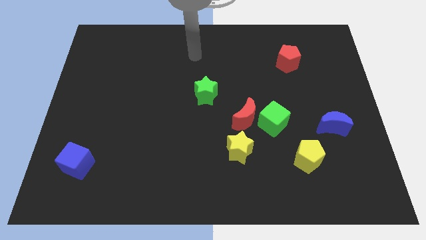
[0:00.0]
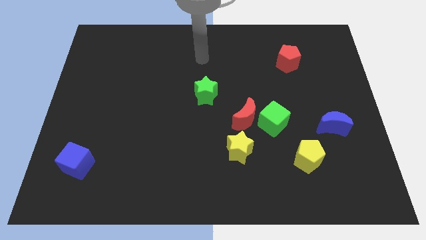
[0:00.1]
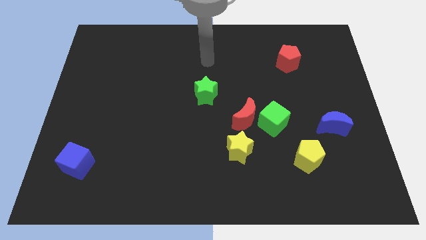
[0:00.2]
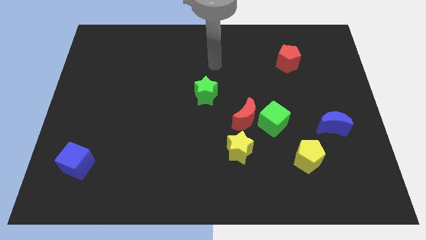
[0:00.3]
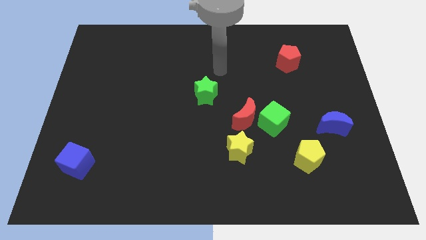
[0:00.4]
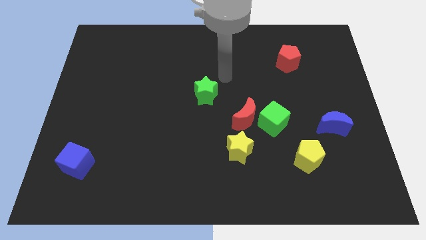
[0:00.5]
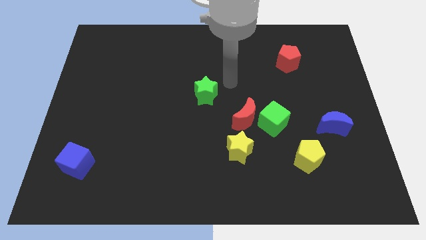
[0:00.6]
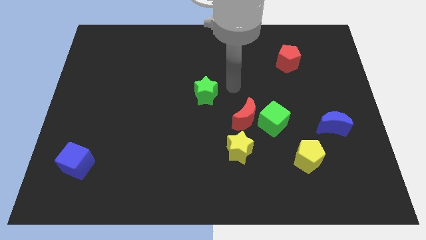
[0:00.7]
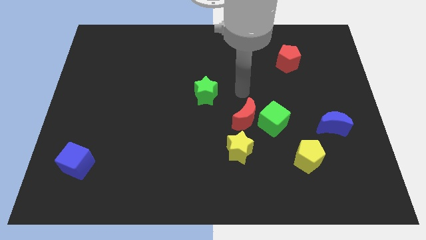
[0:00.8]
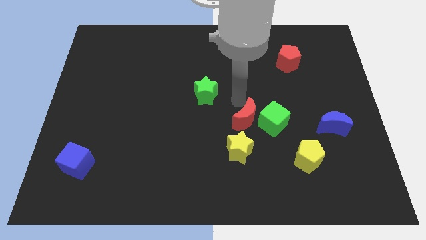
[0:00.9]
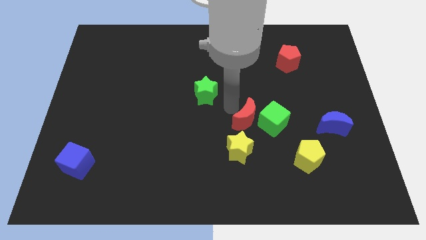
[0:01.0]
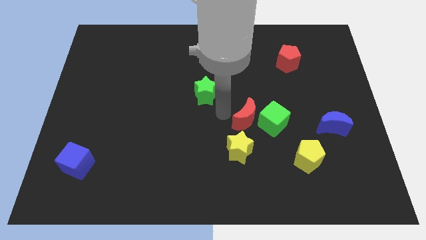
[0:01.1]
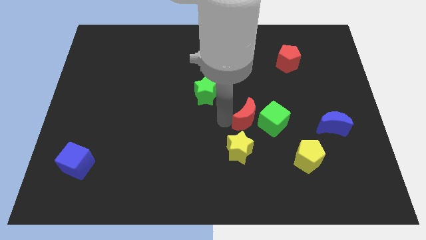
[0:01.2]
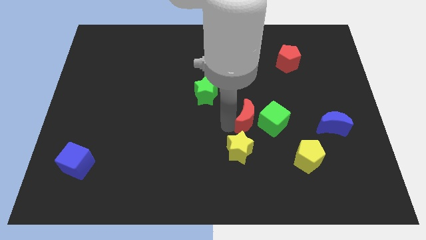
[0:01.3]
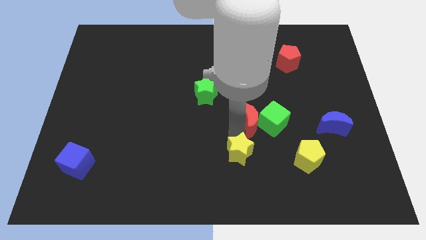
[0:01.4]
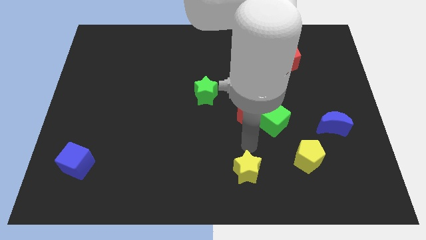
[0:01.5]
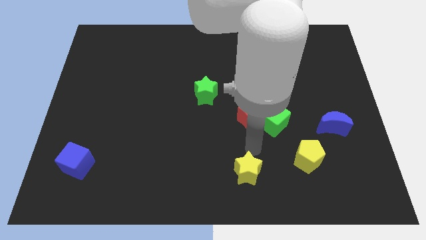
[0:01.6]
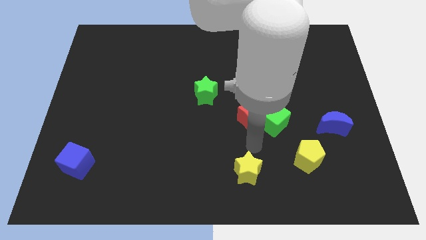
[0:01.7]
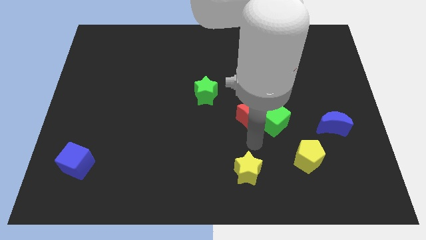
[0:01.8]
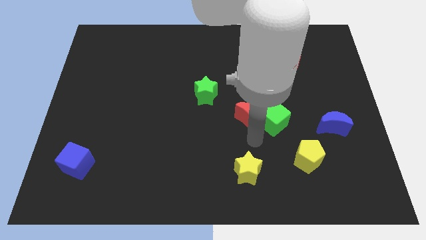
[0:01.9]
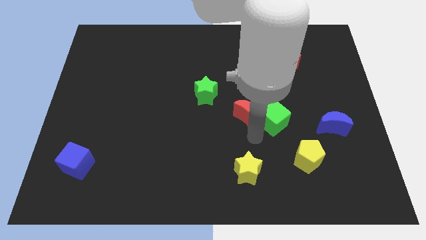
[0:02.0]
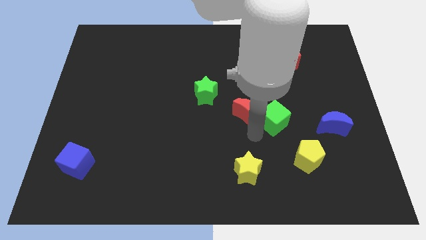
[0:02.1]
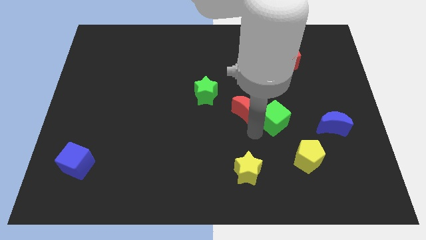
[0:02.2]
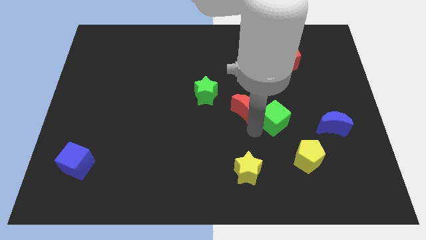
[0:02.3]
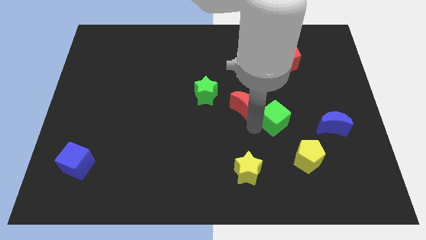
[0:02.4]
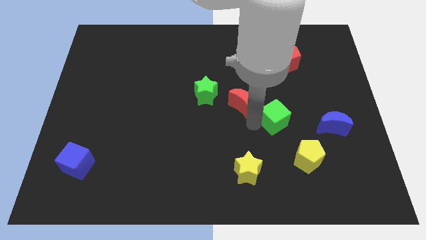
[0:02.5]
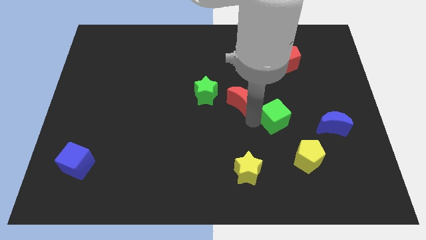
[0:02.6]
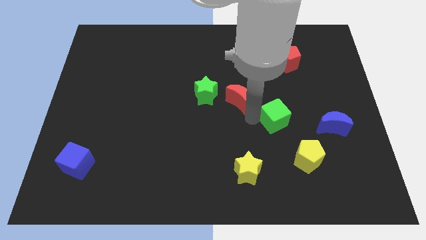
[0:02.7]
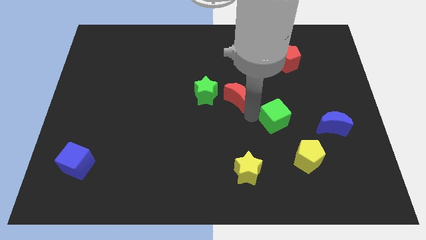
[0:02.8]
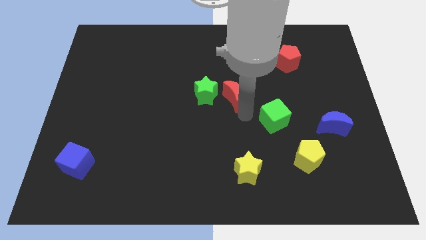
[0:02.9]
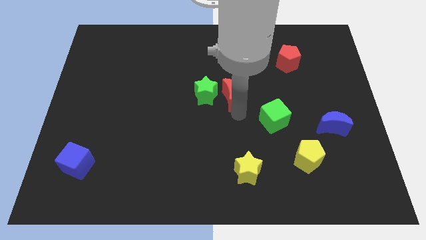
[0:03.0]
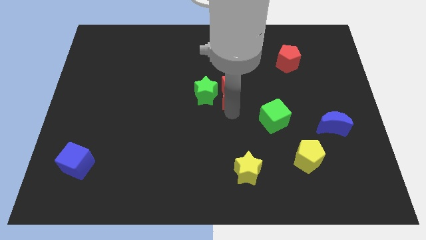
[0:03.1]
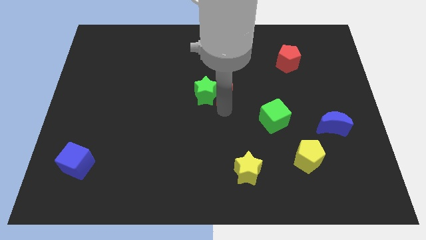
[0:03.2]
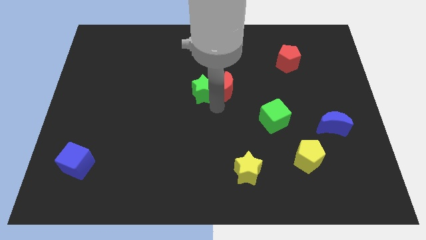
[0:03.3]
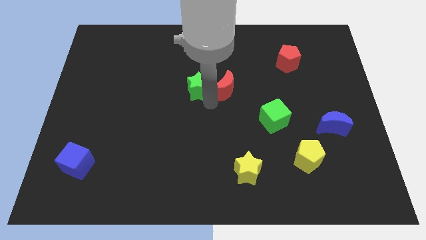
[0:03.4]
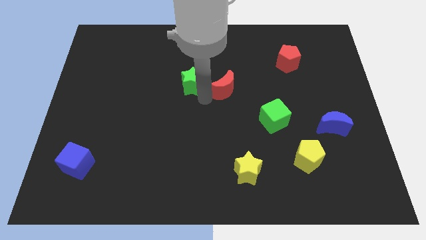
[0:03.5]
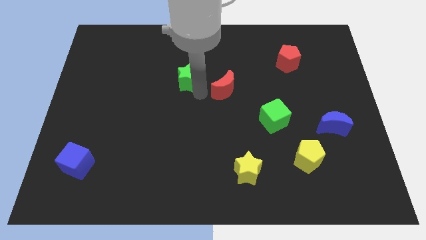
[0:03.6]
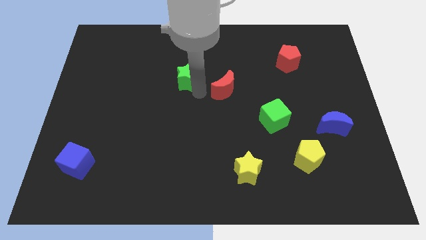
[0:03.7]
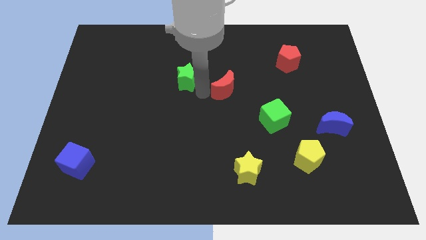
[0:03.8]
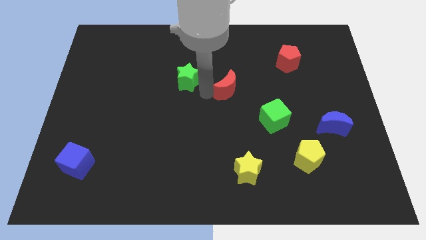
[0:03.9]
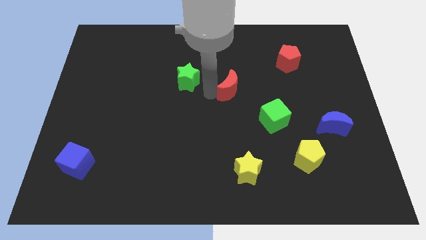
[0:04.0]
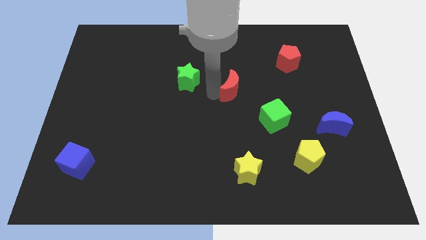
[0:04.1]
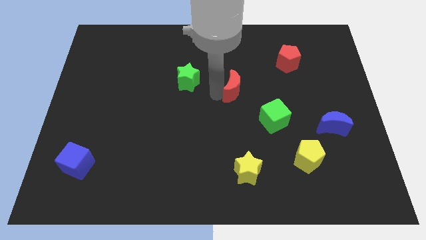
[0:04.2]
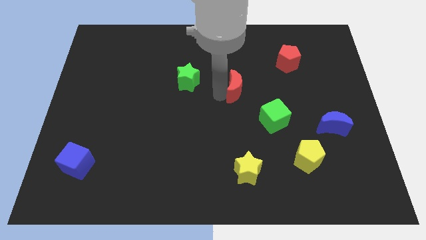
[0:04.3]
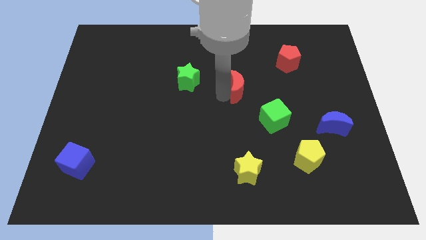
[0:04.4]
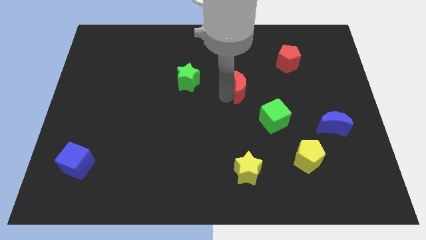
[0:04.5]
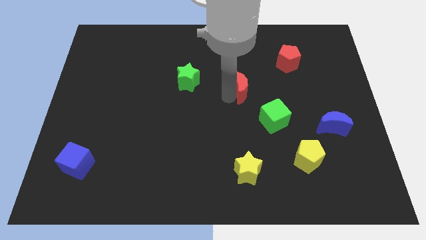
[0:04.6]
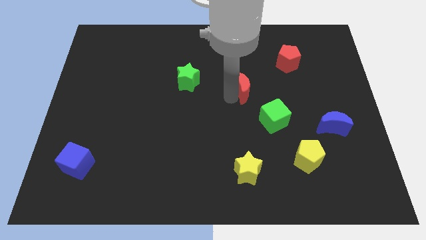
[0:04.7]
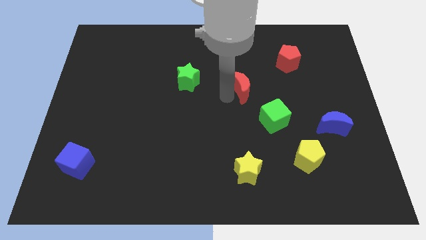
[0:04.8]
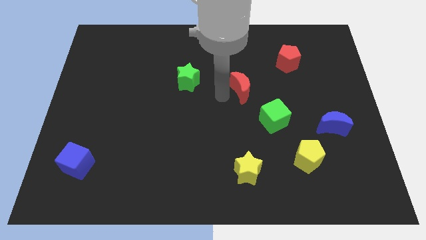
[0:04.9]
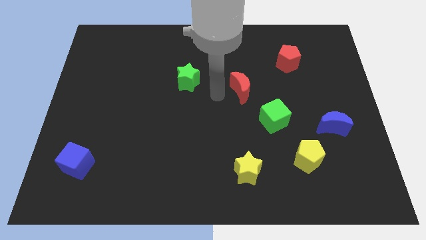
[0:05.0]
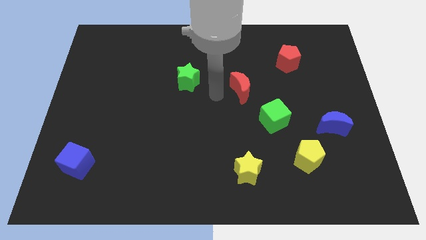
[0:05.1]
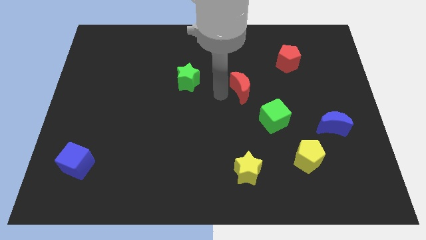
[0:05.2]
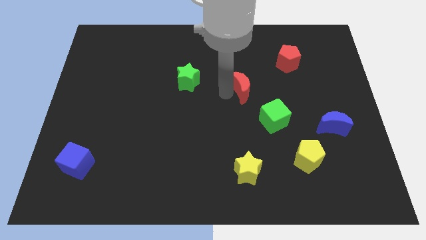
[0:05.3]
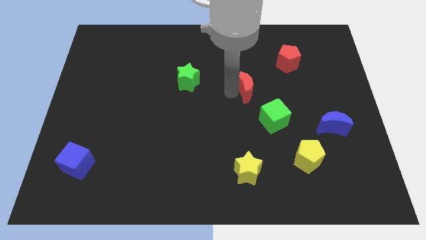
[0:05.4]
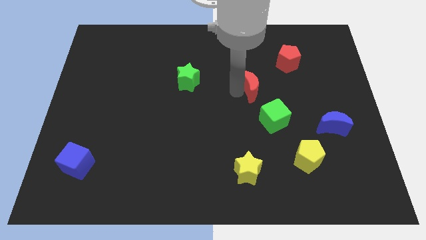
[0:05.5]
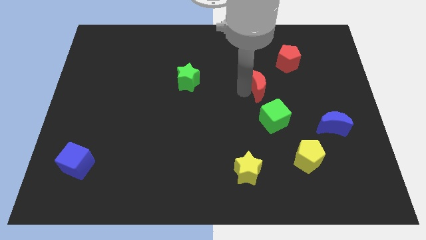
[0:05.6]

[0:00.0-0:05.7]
slightly slide the red moon upwards and to the right diagonally

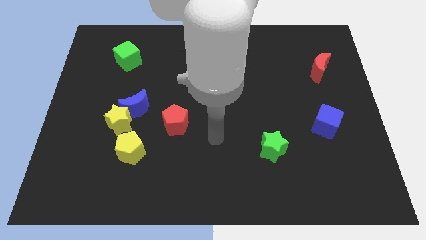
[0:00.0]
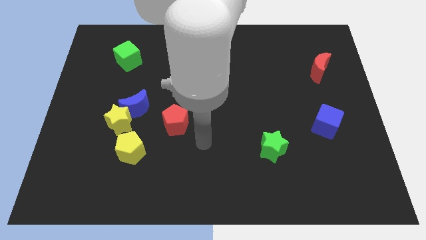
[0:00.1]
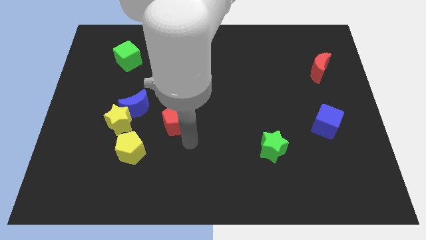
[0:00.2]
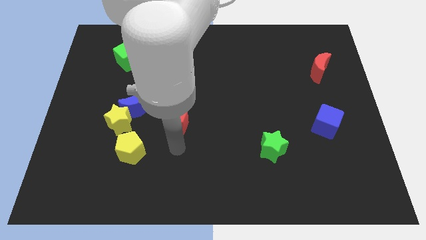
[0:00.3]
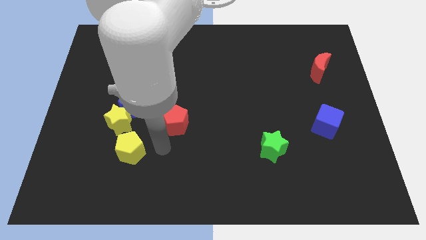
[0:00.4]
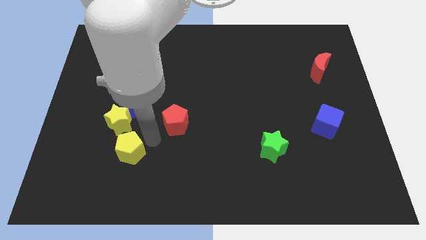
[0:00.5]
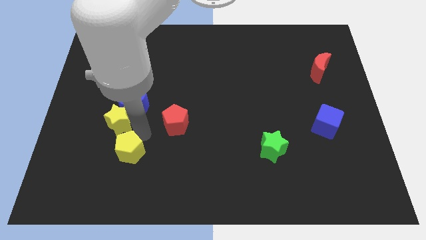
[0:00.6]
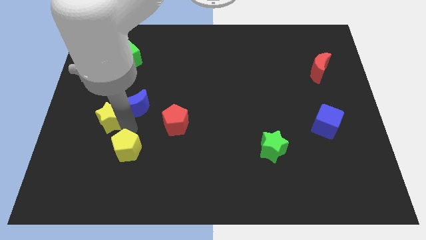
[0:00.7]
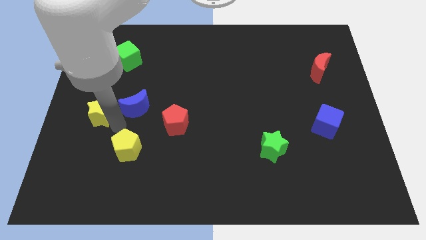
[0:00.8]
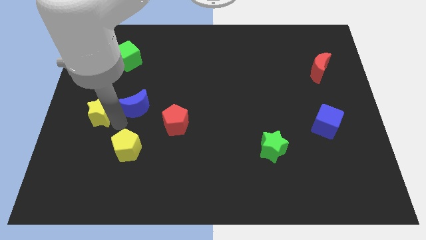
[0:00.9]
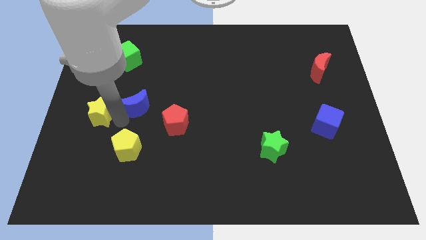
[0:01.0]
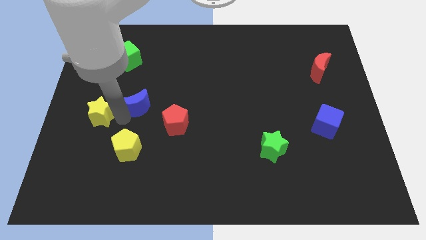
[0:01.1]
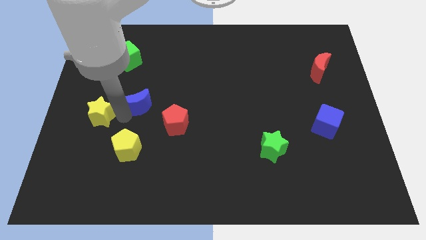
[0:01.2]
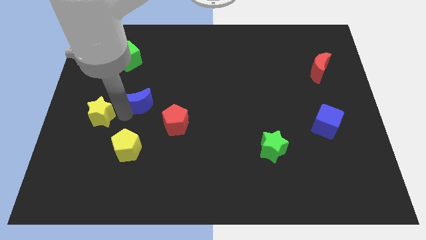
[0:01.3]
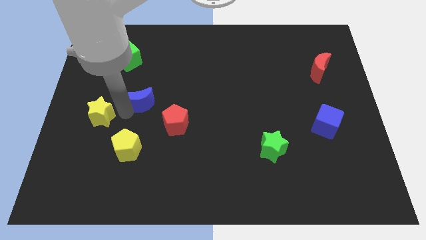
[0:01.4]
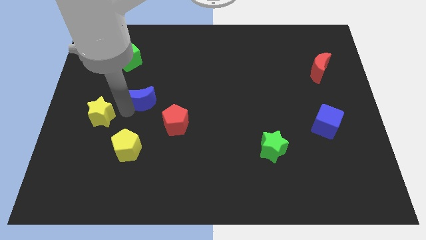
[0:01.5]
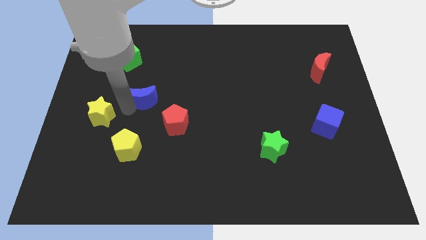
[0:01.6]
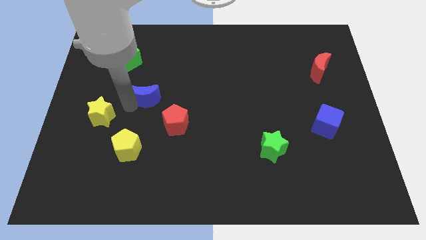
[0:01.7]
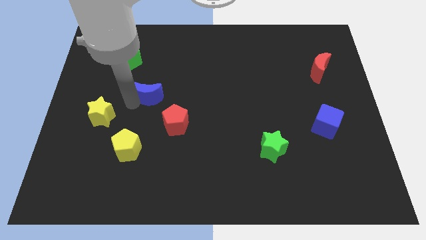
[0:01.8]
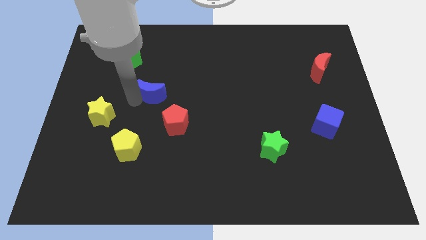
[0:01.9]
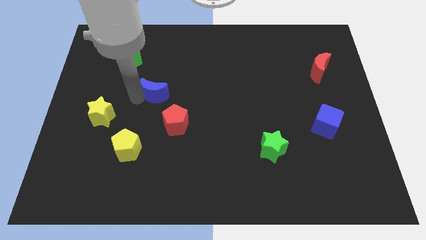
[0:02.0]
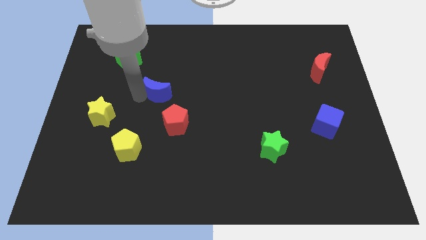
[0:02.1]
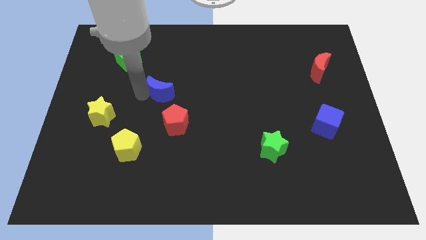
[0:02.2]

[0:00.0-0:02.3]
slightly slide the blue moon upwards and to the right diagonally

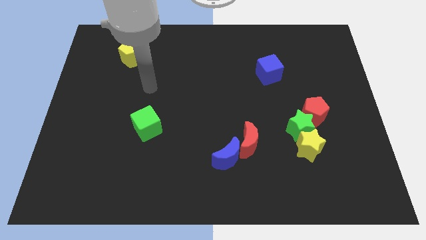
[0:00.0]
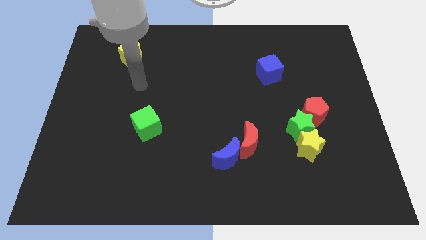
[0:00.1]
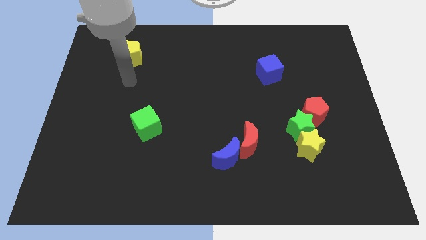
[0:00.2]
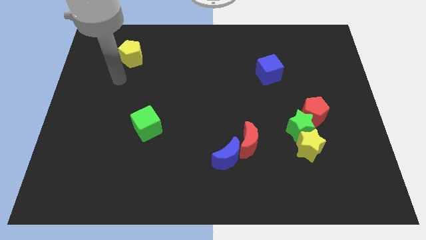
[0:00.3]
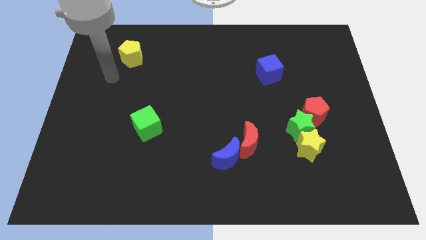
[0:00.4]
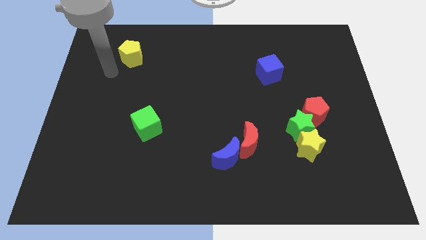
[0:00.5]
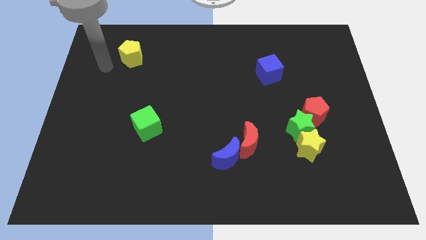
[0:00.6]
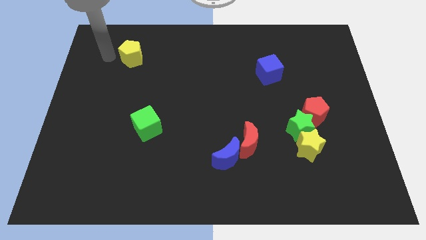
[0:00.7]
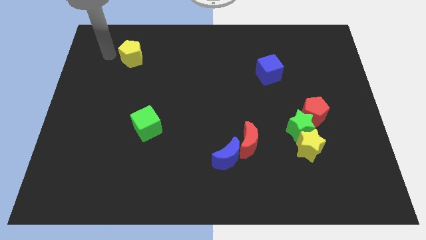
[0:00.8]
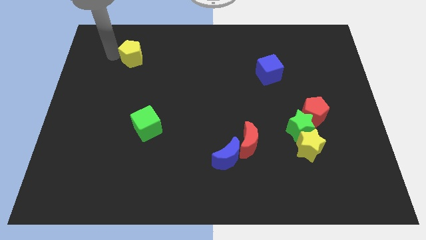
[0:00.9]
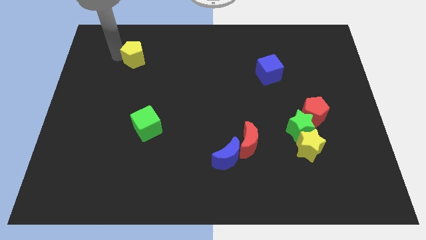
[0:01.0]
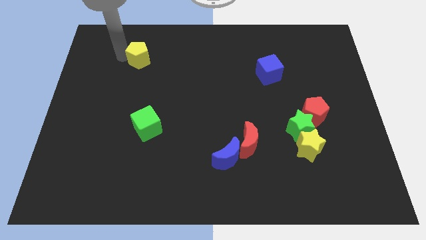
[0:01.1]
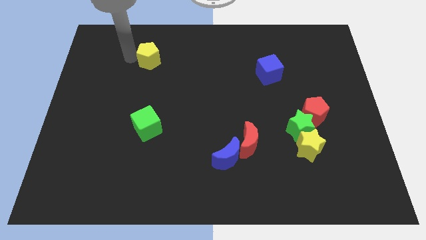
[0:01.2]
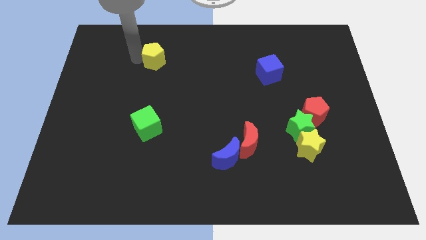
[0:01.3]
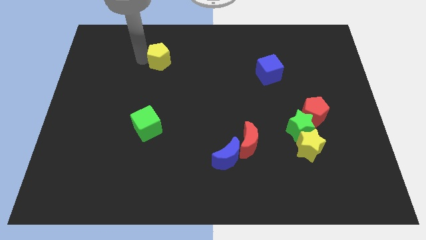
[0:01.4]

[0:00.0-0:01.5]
slide the yellow pentagon right slightly
